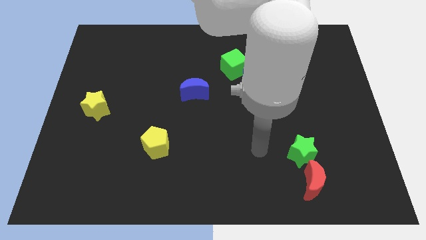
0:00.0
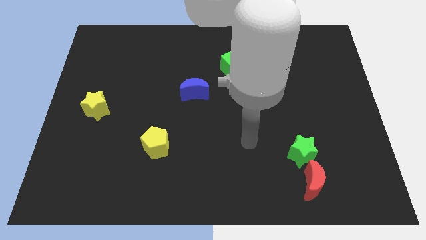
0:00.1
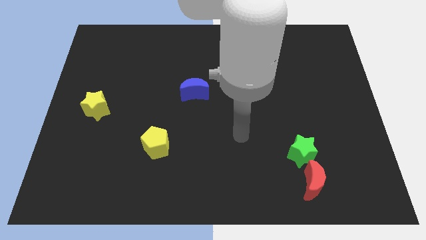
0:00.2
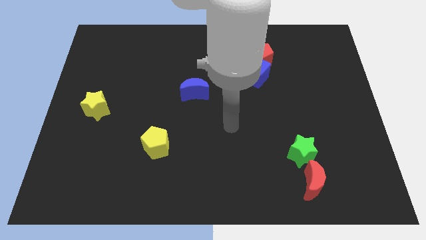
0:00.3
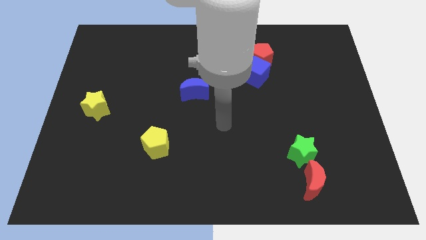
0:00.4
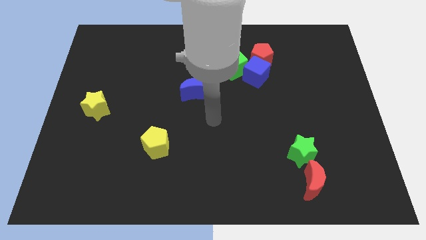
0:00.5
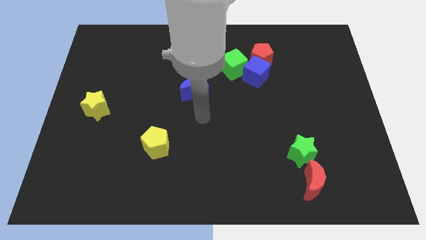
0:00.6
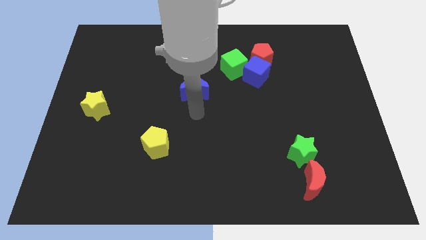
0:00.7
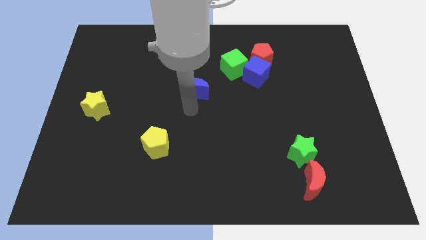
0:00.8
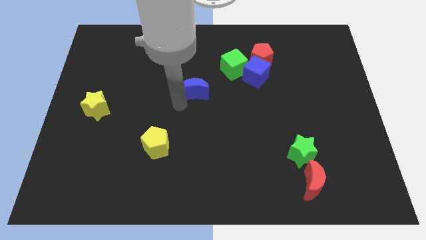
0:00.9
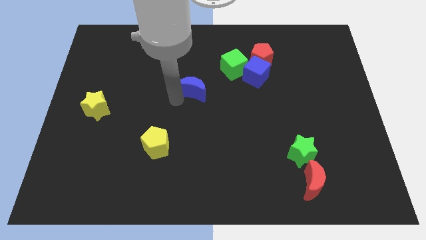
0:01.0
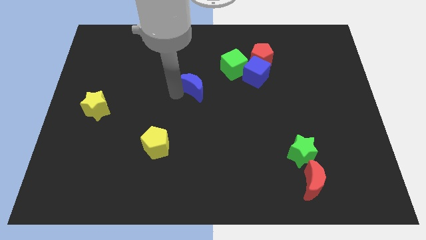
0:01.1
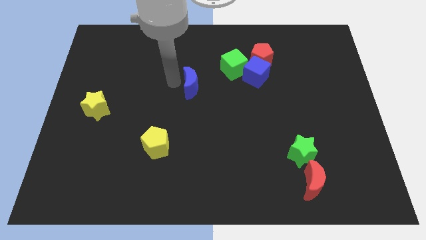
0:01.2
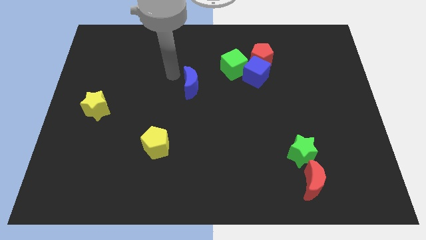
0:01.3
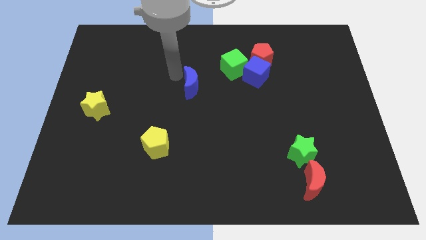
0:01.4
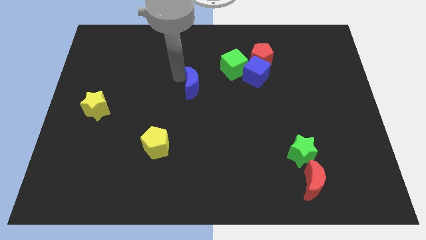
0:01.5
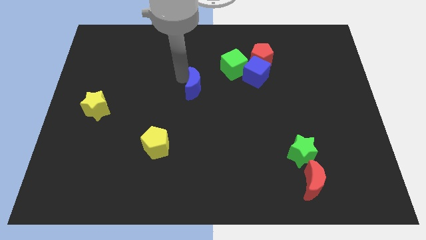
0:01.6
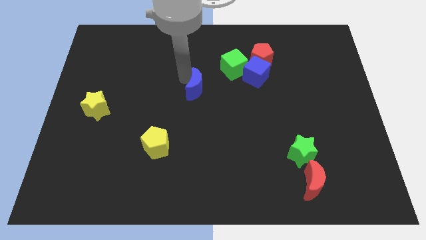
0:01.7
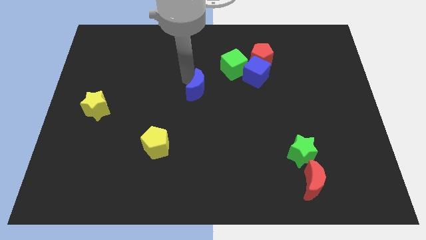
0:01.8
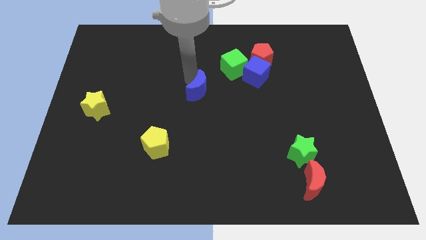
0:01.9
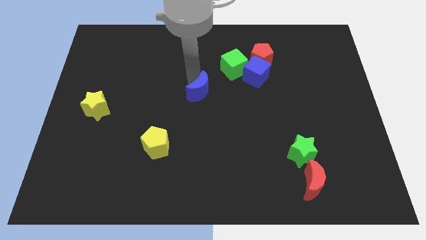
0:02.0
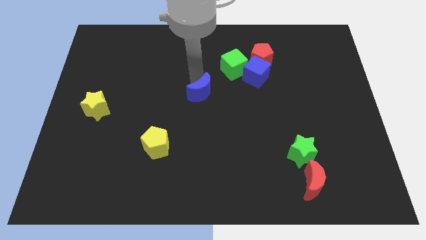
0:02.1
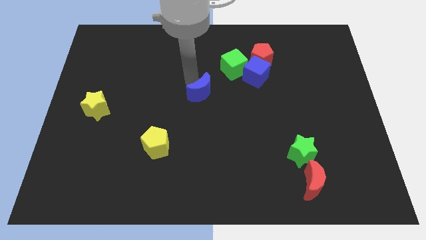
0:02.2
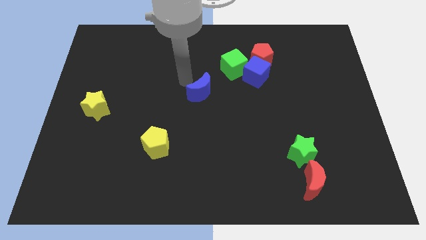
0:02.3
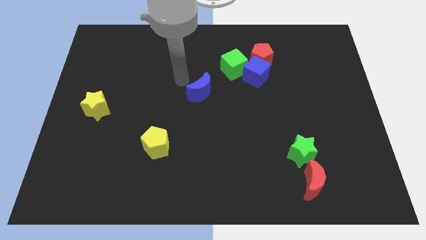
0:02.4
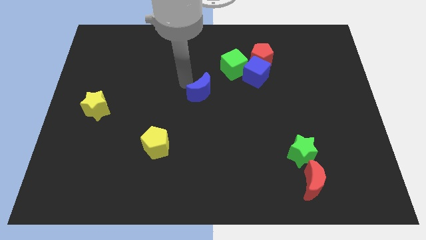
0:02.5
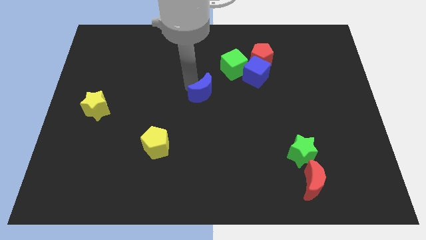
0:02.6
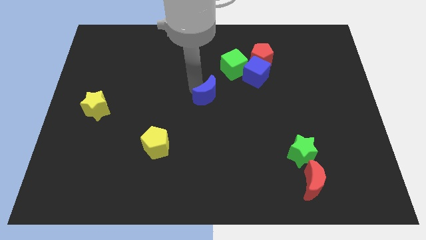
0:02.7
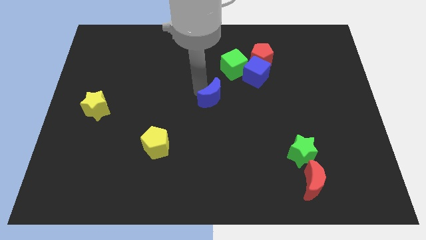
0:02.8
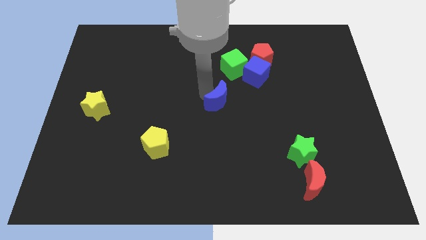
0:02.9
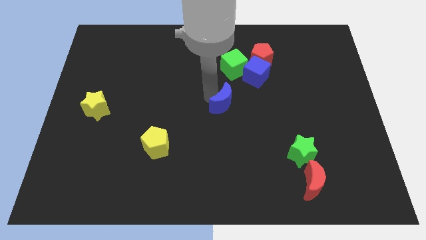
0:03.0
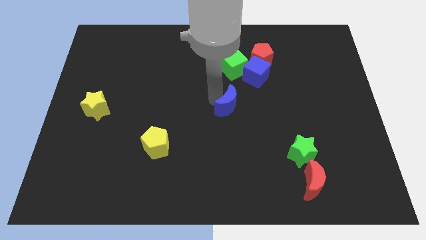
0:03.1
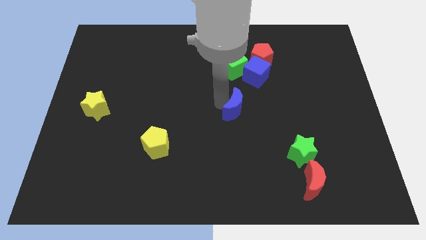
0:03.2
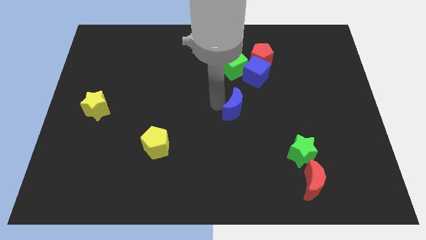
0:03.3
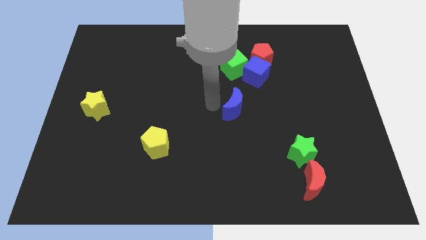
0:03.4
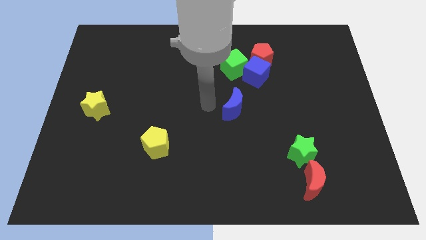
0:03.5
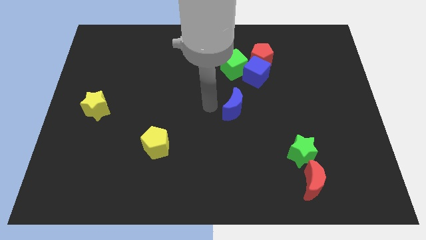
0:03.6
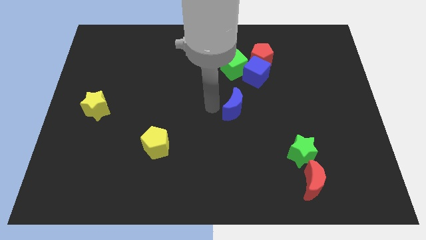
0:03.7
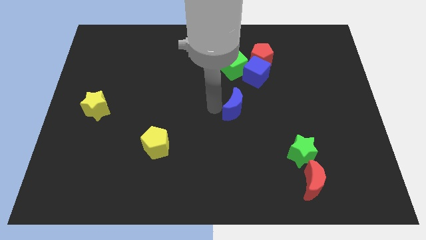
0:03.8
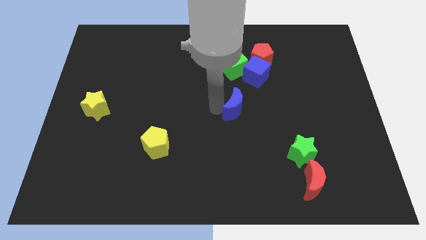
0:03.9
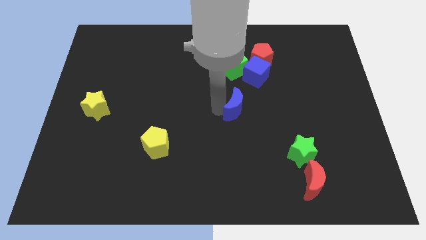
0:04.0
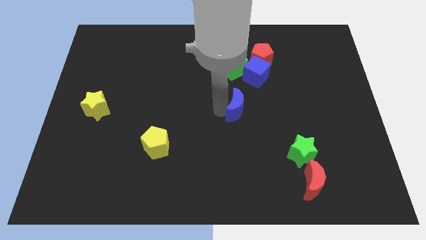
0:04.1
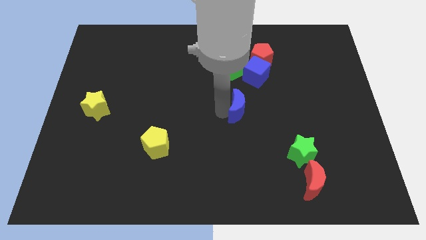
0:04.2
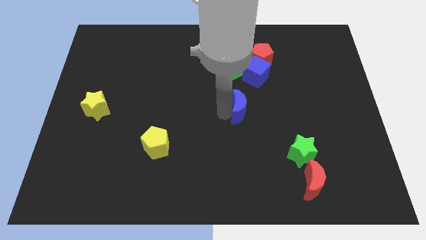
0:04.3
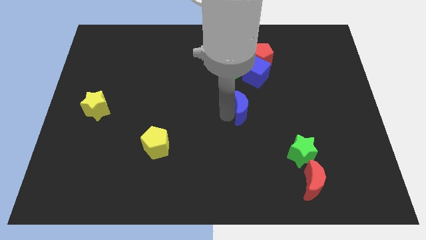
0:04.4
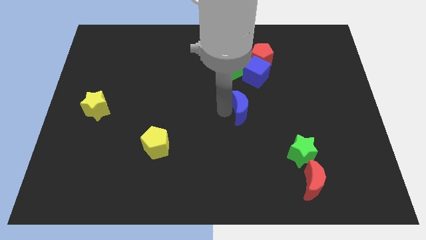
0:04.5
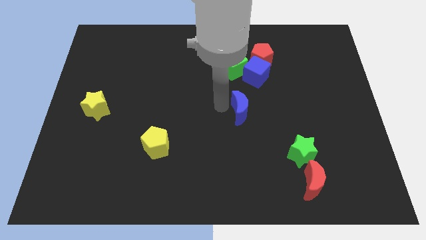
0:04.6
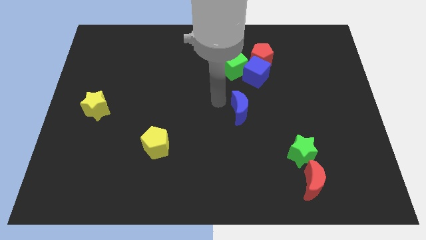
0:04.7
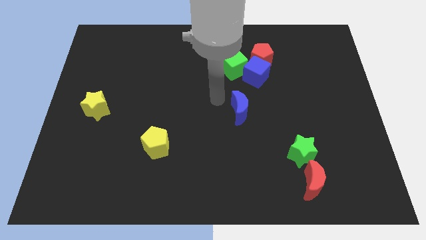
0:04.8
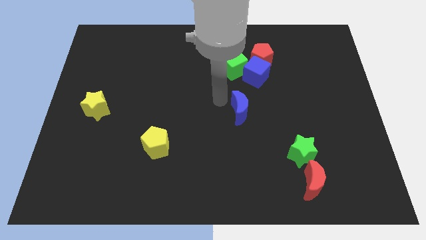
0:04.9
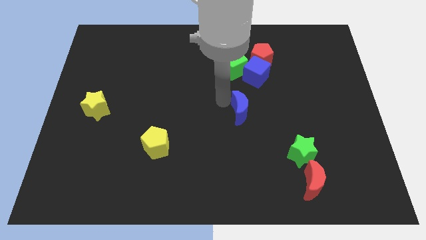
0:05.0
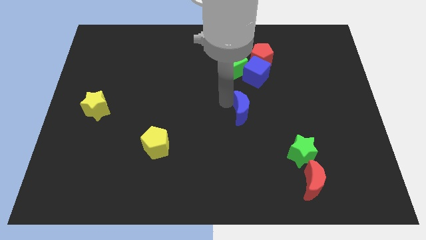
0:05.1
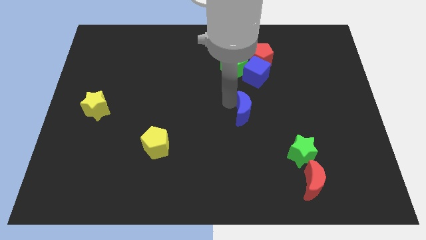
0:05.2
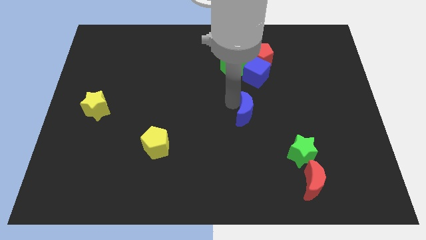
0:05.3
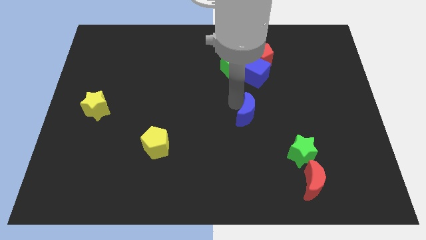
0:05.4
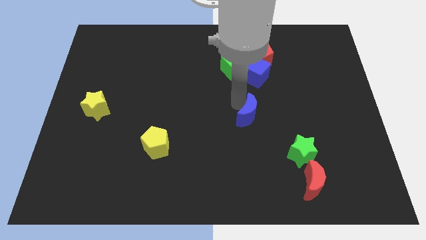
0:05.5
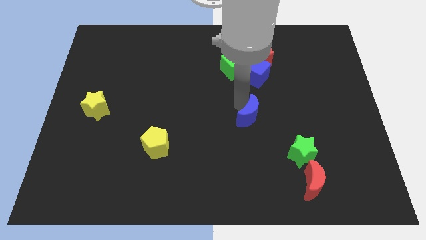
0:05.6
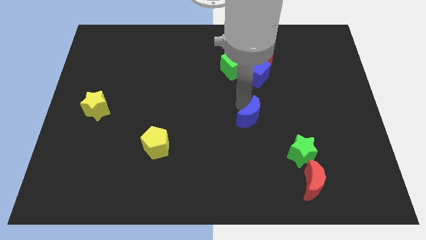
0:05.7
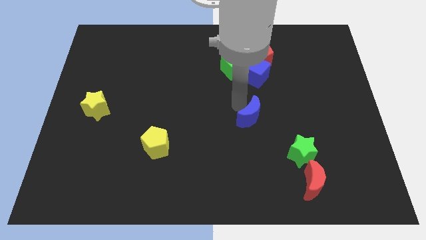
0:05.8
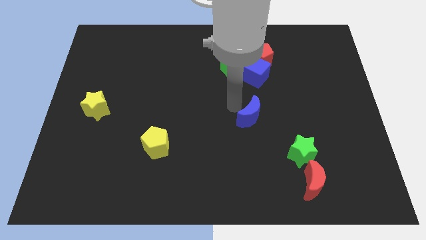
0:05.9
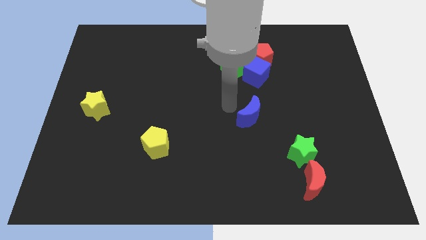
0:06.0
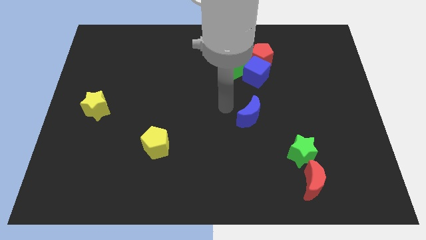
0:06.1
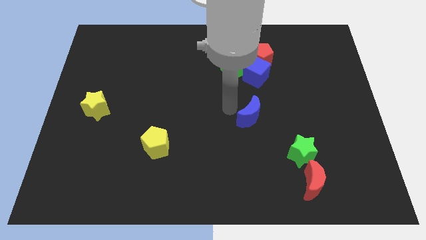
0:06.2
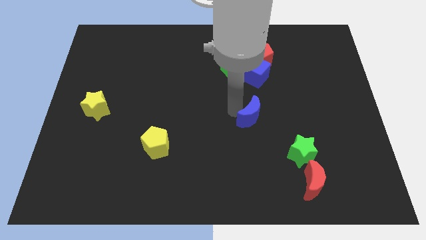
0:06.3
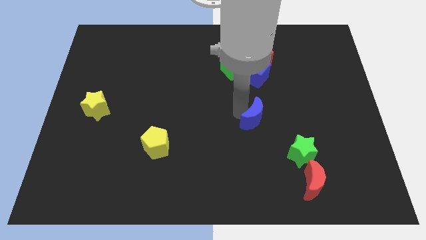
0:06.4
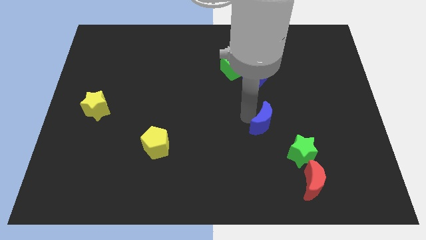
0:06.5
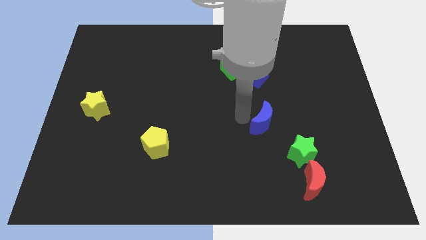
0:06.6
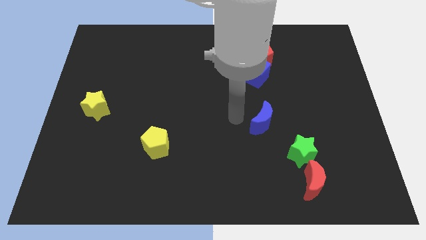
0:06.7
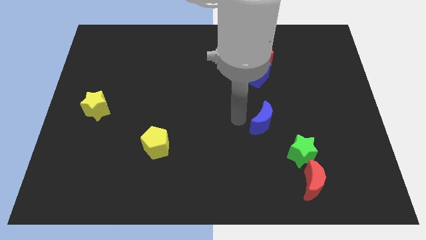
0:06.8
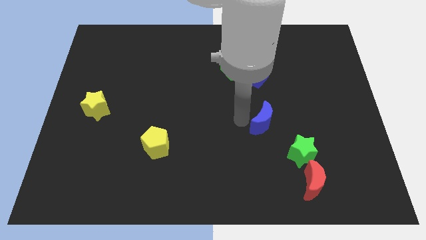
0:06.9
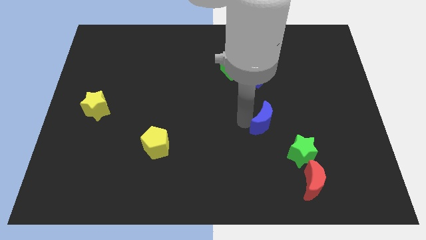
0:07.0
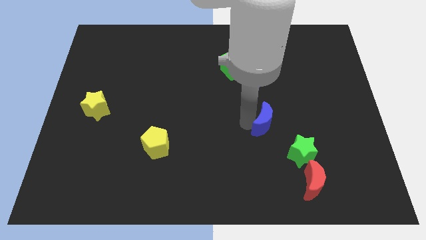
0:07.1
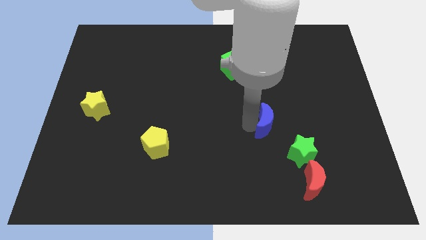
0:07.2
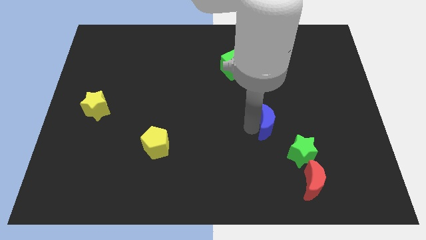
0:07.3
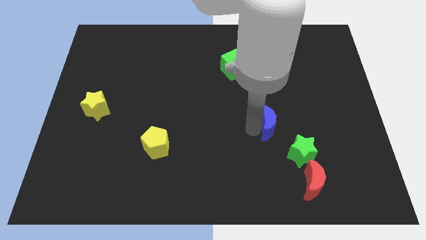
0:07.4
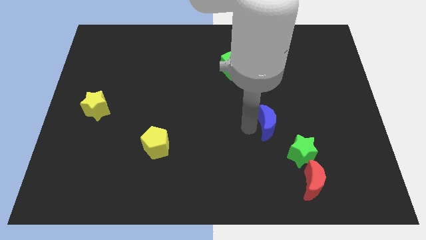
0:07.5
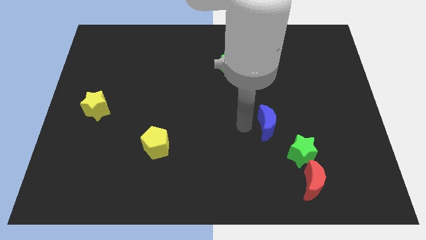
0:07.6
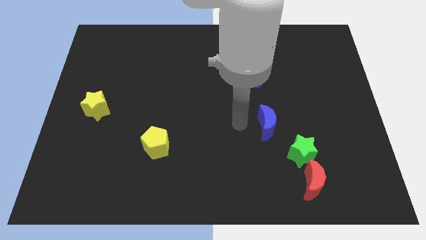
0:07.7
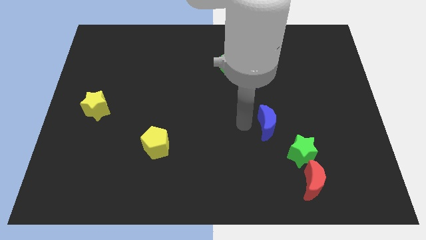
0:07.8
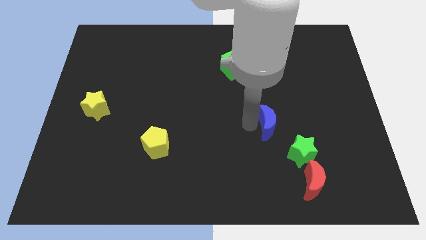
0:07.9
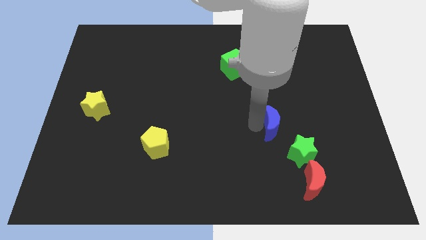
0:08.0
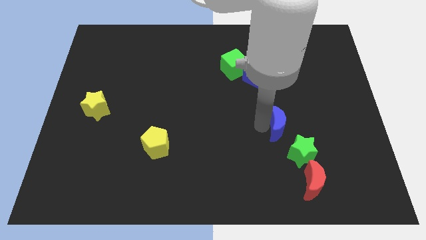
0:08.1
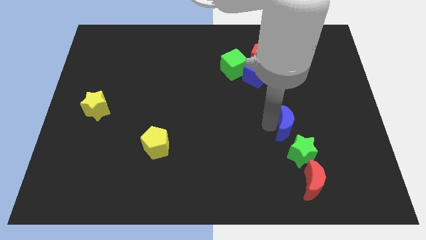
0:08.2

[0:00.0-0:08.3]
move the blue moon to the top side of the red moon
